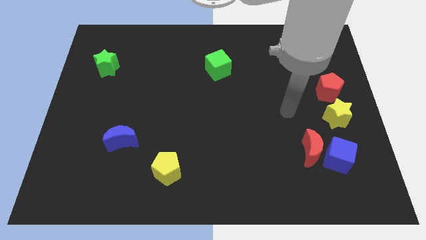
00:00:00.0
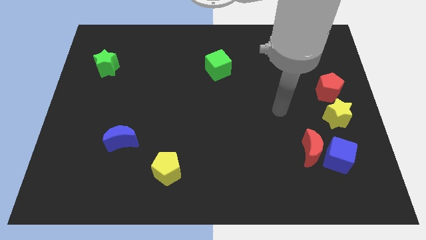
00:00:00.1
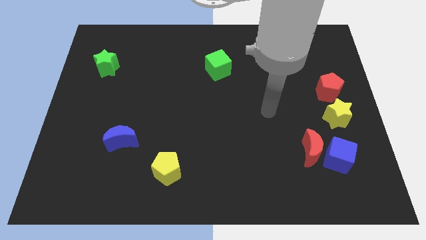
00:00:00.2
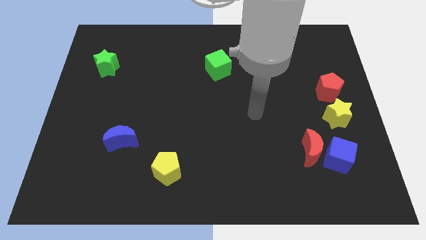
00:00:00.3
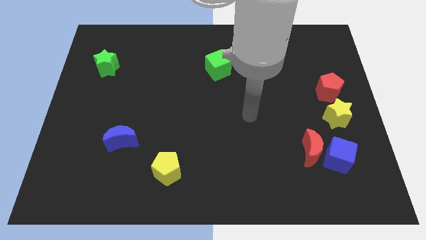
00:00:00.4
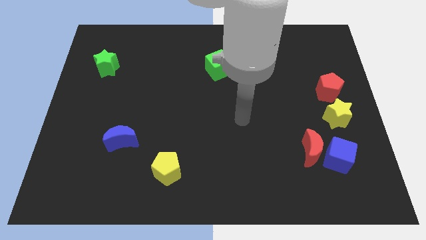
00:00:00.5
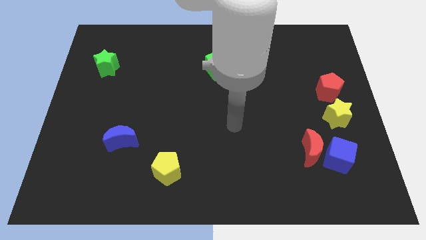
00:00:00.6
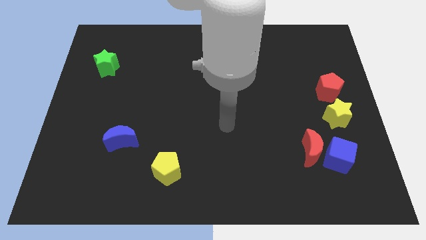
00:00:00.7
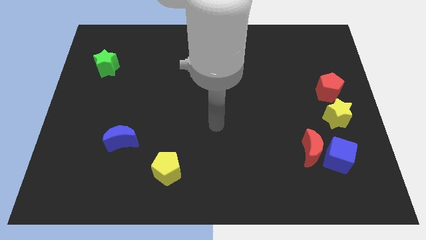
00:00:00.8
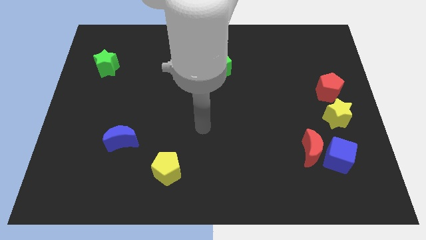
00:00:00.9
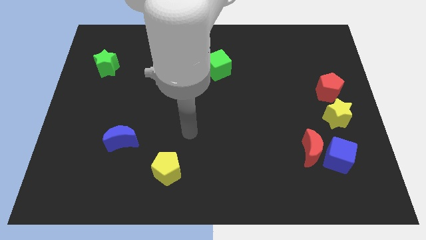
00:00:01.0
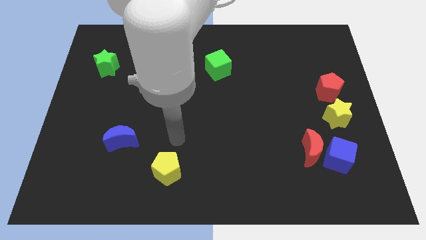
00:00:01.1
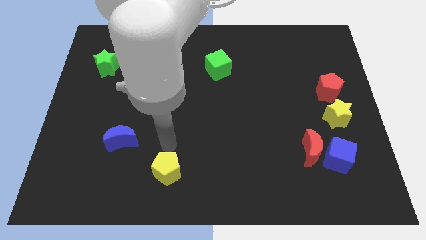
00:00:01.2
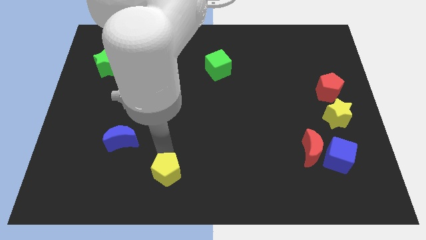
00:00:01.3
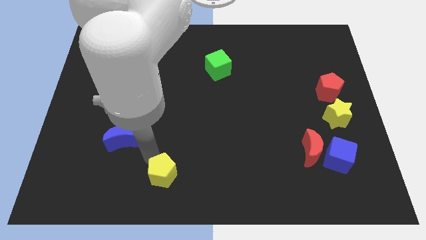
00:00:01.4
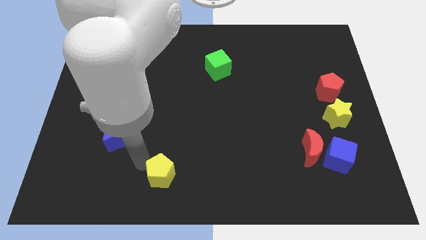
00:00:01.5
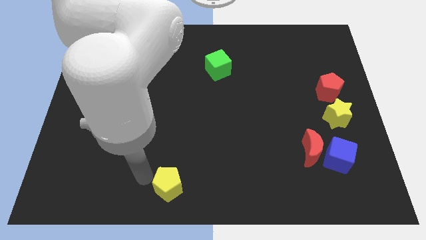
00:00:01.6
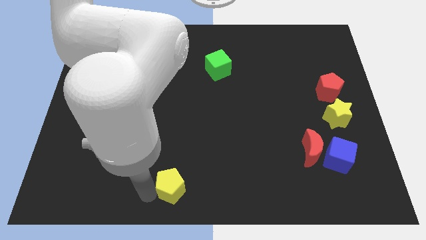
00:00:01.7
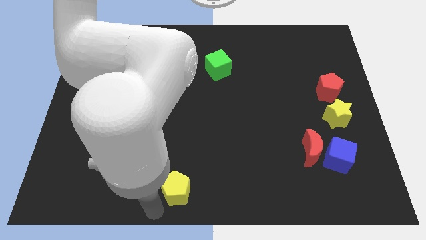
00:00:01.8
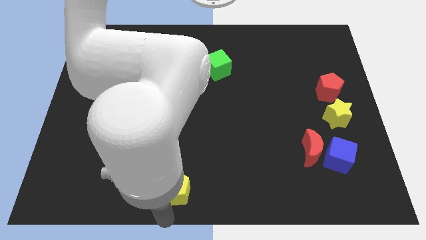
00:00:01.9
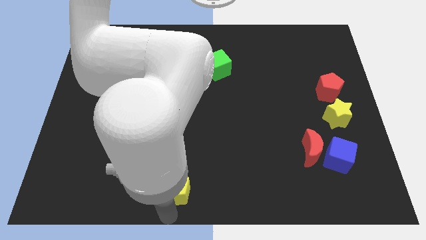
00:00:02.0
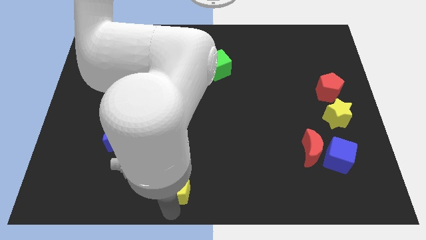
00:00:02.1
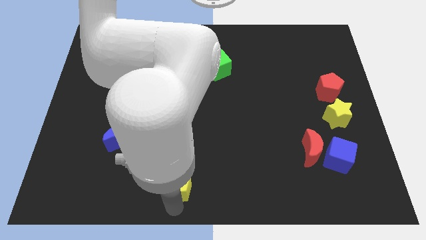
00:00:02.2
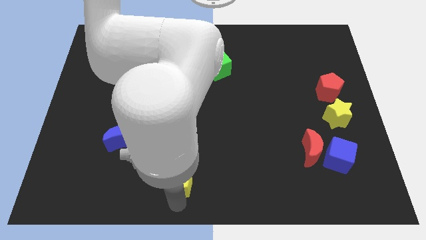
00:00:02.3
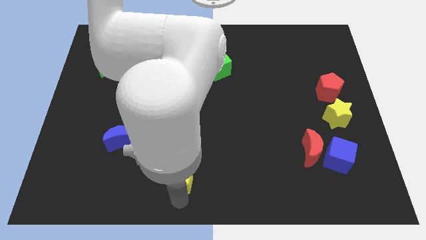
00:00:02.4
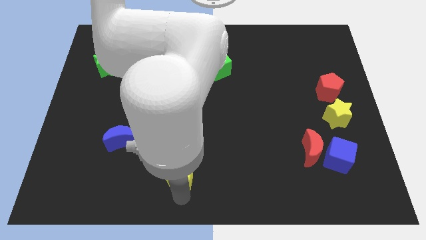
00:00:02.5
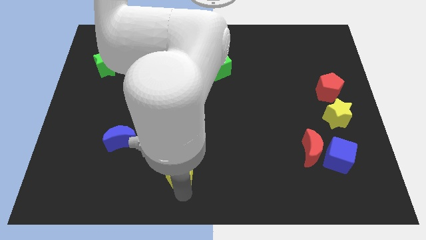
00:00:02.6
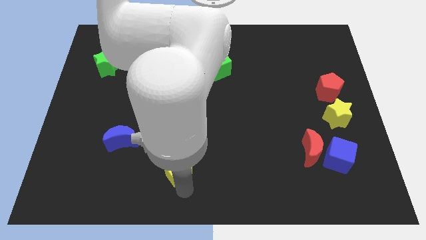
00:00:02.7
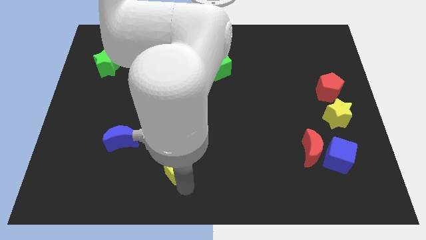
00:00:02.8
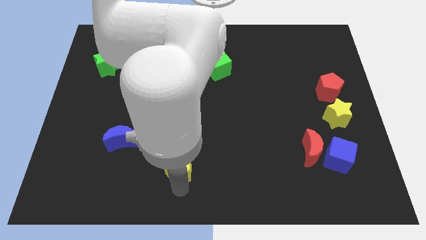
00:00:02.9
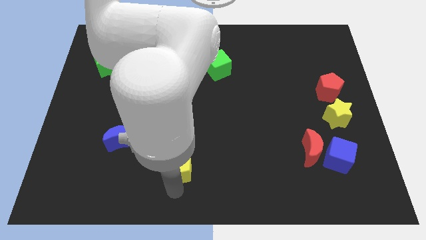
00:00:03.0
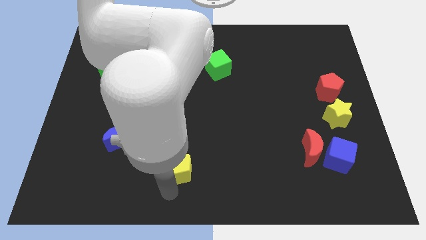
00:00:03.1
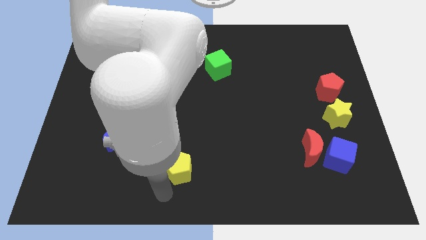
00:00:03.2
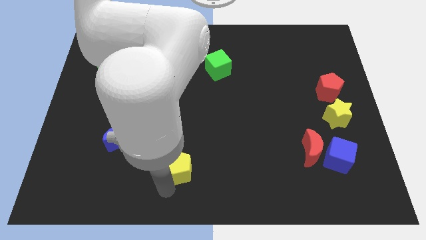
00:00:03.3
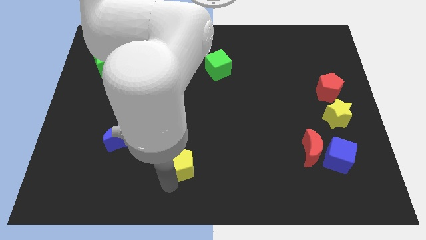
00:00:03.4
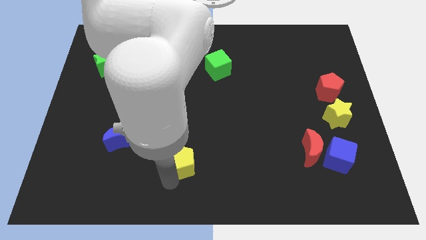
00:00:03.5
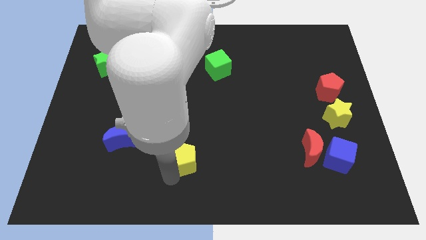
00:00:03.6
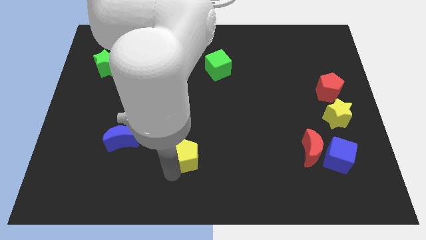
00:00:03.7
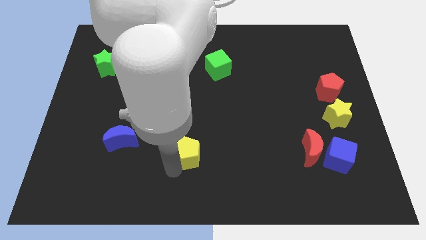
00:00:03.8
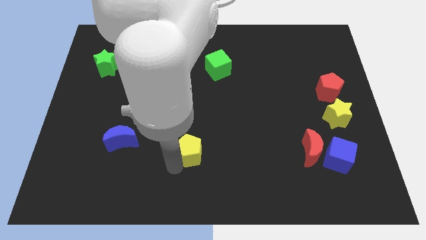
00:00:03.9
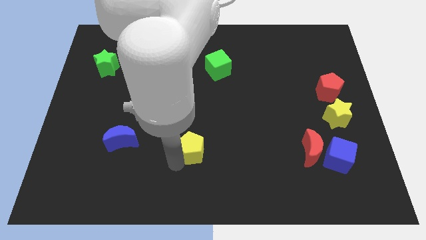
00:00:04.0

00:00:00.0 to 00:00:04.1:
push the yellow pentagon up and then to the right a little

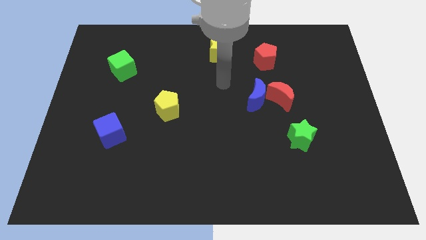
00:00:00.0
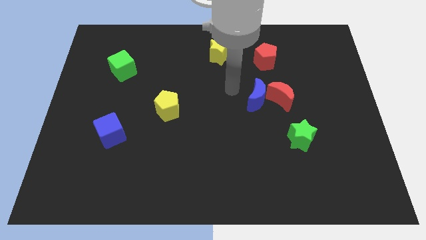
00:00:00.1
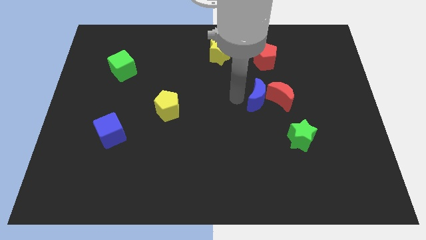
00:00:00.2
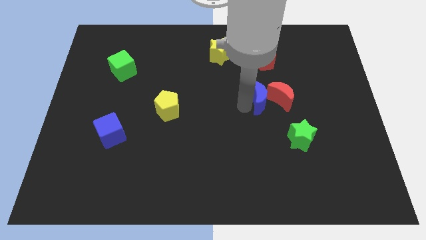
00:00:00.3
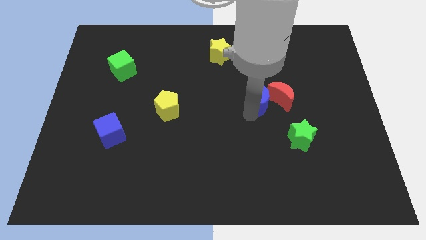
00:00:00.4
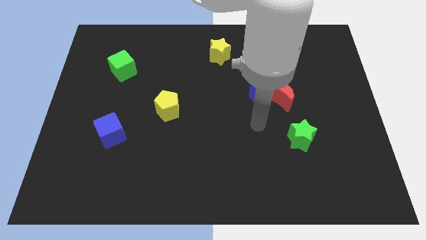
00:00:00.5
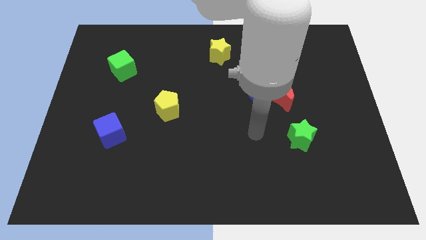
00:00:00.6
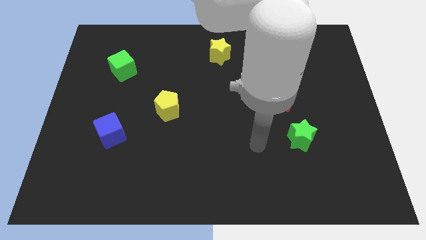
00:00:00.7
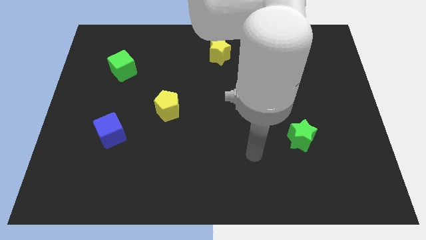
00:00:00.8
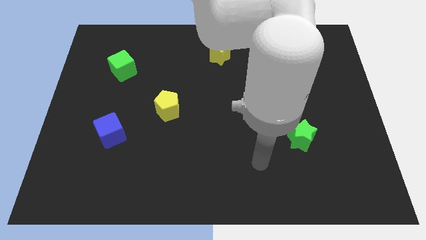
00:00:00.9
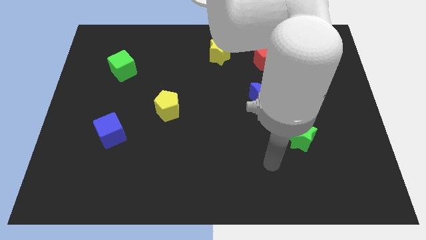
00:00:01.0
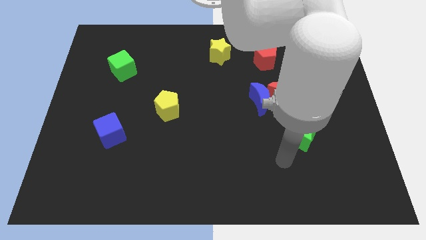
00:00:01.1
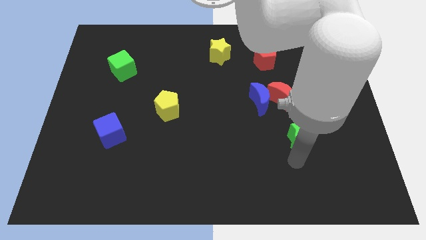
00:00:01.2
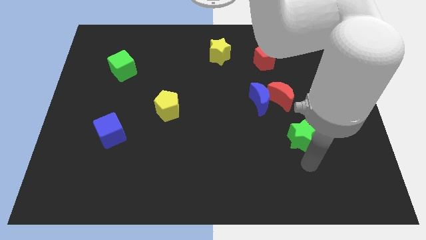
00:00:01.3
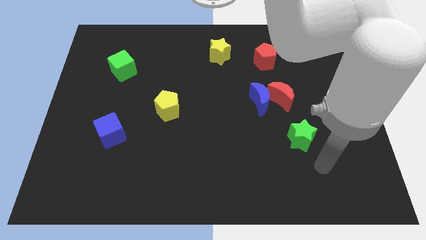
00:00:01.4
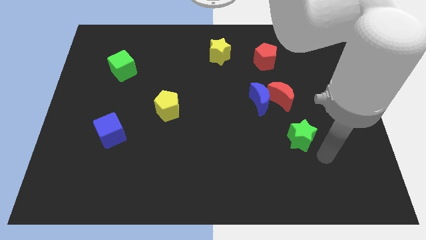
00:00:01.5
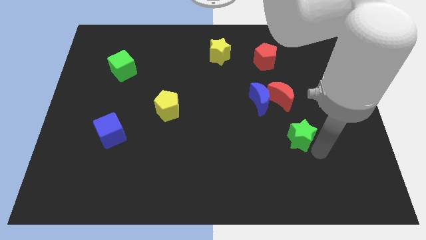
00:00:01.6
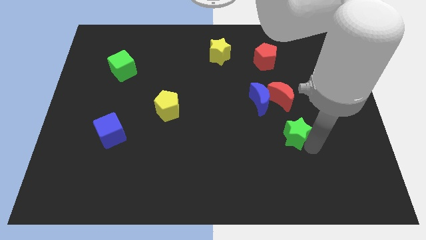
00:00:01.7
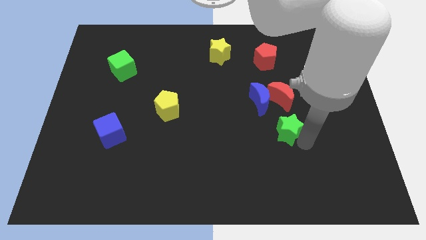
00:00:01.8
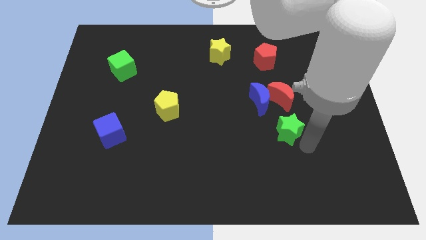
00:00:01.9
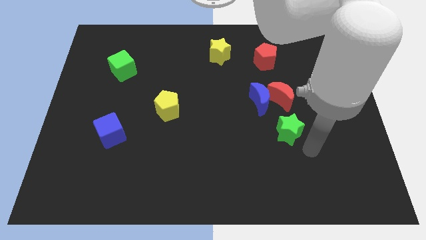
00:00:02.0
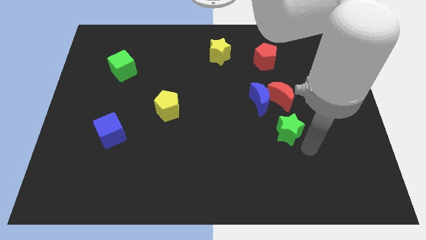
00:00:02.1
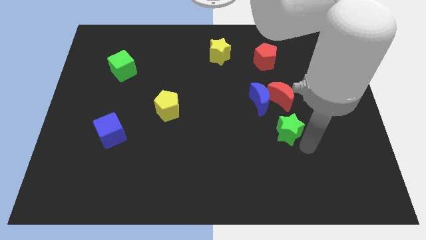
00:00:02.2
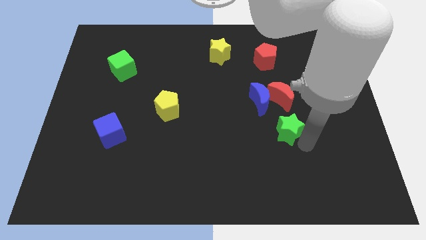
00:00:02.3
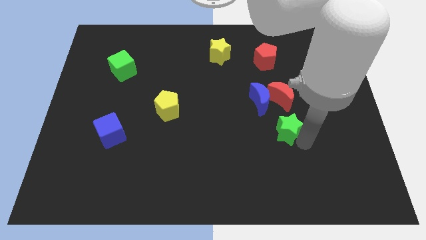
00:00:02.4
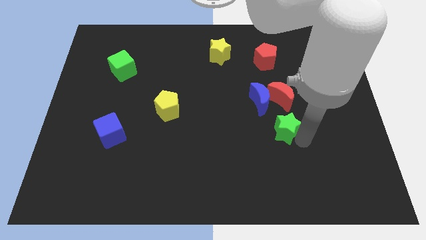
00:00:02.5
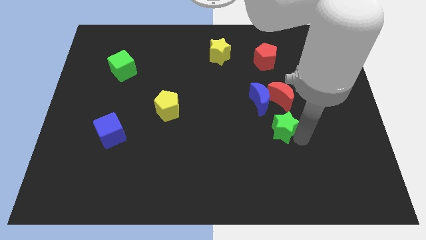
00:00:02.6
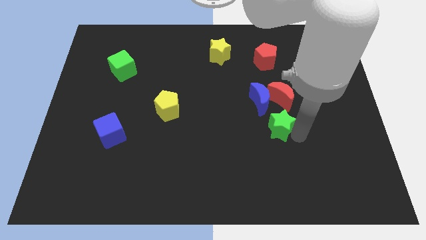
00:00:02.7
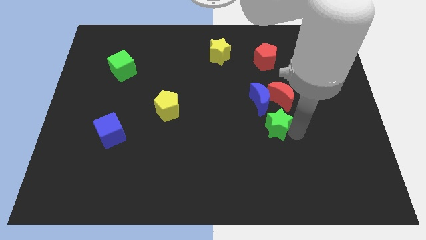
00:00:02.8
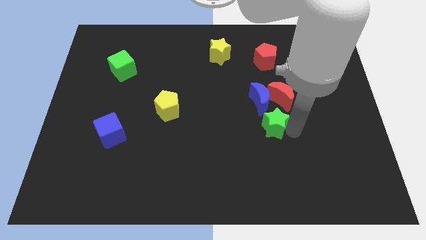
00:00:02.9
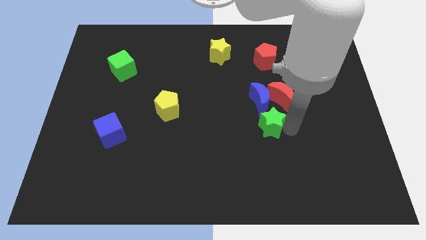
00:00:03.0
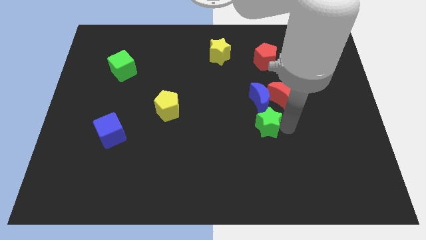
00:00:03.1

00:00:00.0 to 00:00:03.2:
push the green star a little bit up and to the left

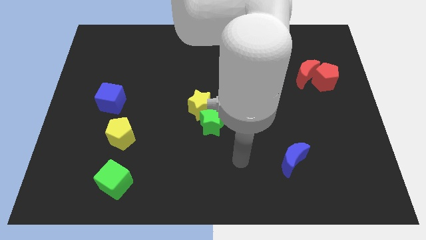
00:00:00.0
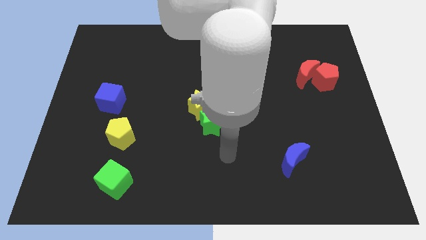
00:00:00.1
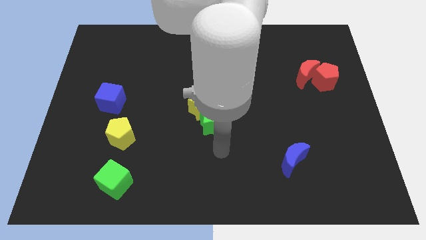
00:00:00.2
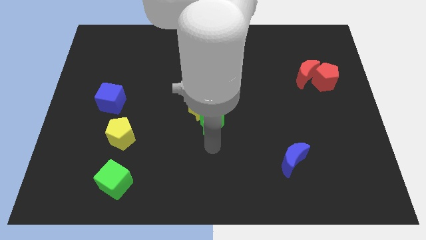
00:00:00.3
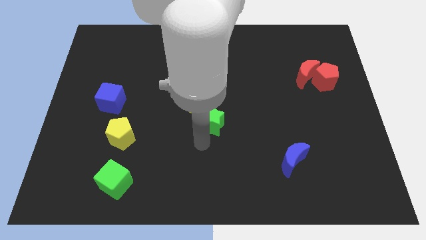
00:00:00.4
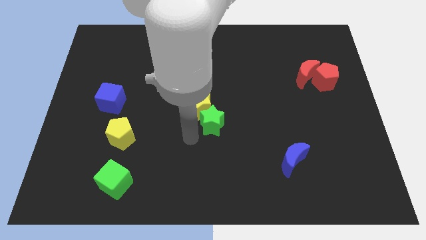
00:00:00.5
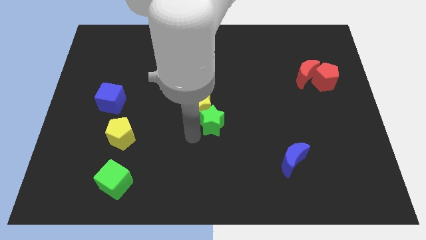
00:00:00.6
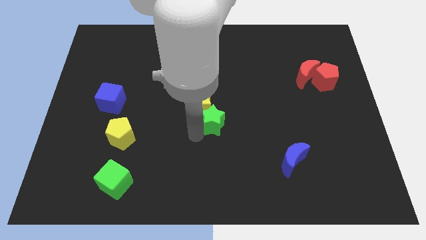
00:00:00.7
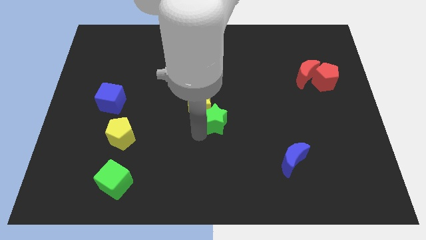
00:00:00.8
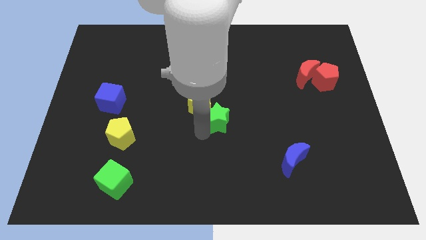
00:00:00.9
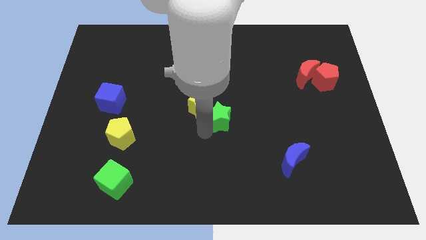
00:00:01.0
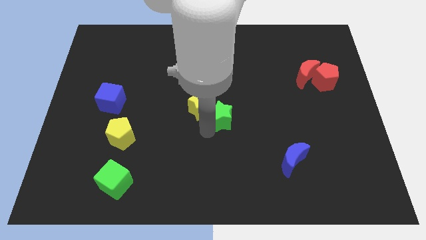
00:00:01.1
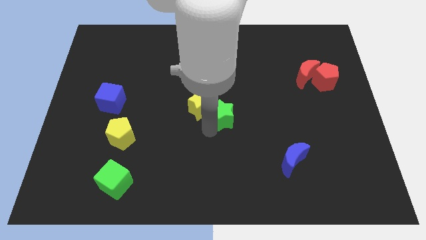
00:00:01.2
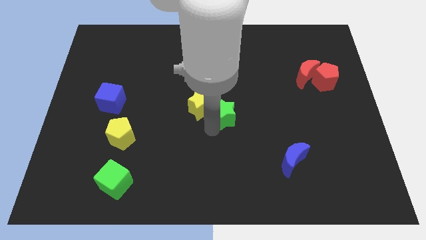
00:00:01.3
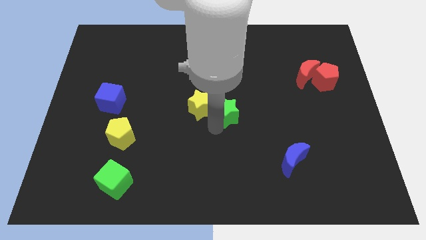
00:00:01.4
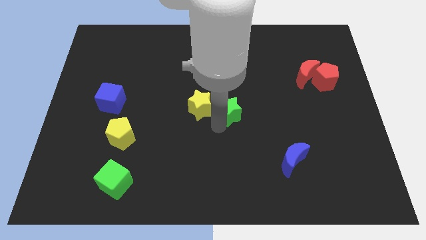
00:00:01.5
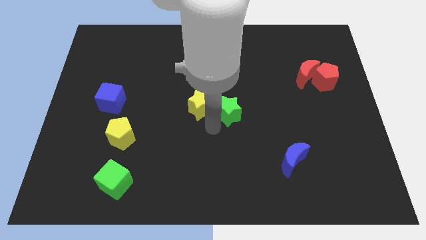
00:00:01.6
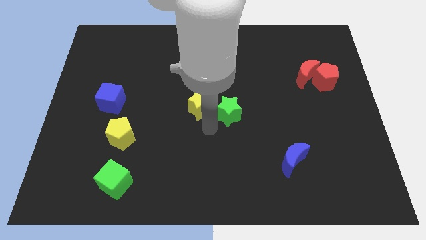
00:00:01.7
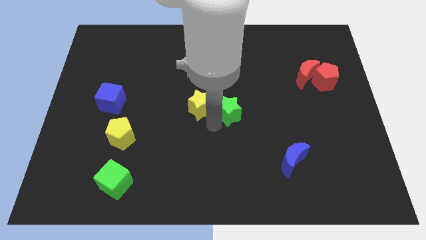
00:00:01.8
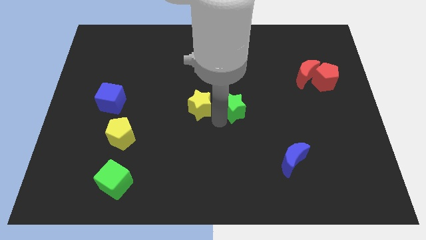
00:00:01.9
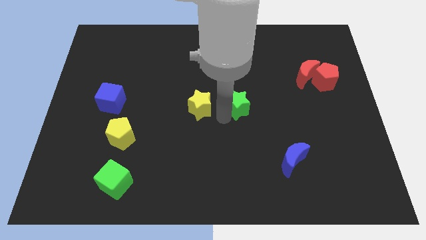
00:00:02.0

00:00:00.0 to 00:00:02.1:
move the green star a little bit upwards and right diagonally
